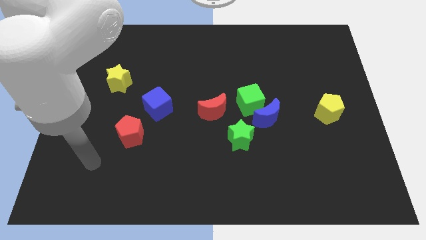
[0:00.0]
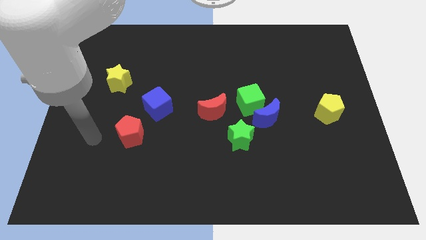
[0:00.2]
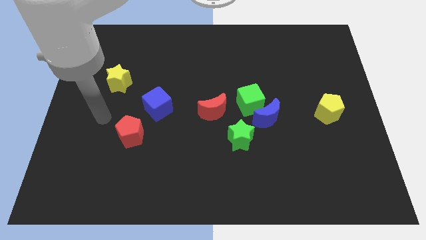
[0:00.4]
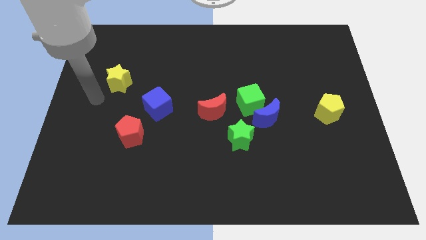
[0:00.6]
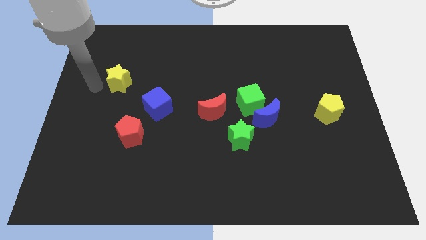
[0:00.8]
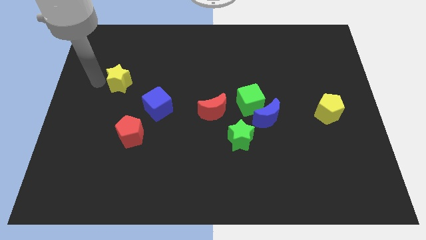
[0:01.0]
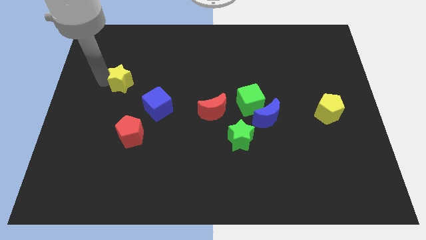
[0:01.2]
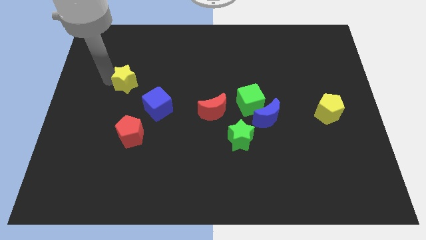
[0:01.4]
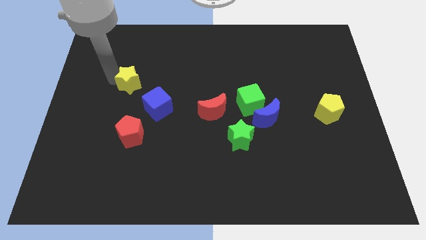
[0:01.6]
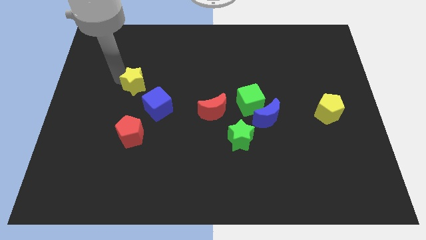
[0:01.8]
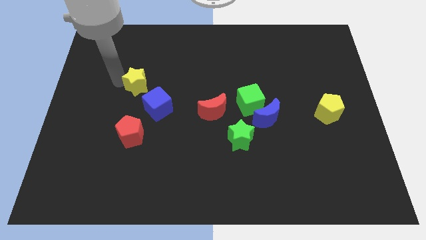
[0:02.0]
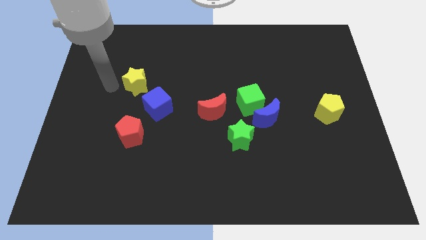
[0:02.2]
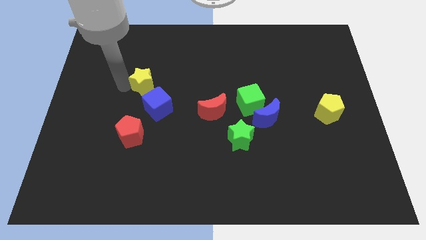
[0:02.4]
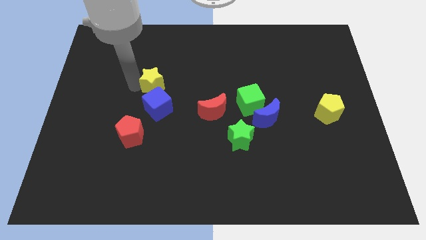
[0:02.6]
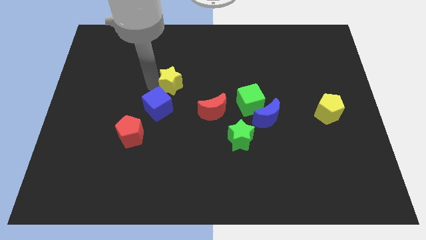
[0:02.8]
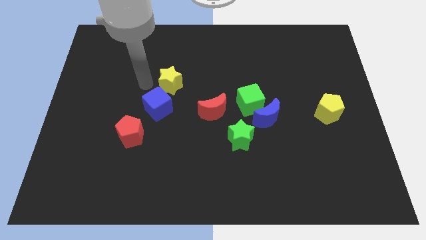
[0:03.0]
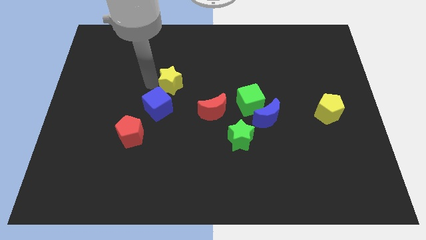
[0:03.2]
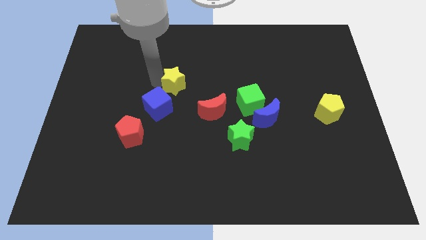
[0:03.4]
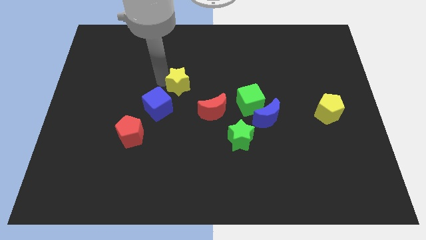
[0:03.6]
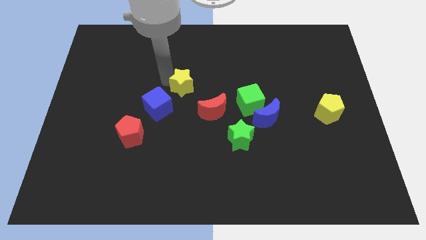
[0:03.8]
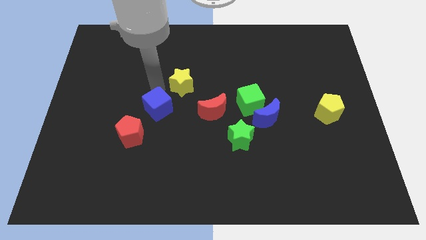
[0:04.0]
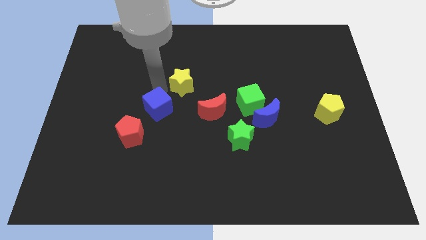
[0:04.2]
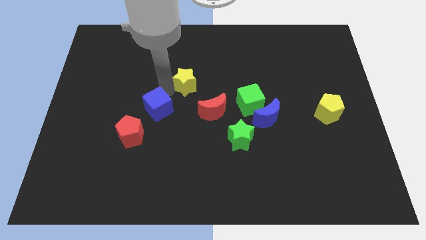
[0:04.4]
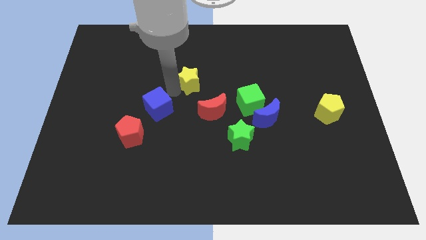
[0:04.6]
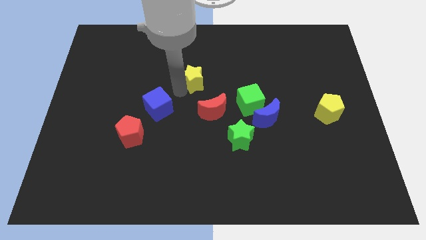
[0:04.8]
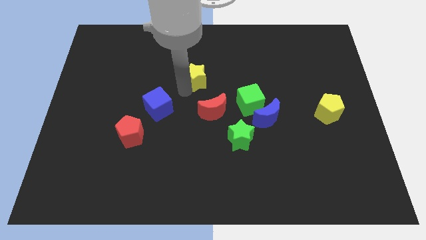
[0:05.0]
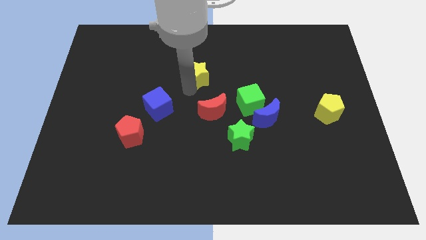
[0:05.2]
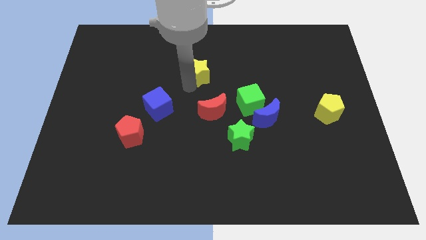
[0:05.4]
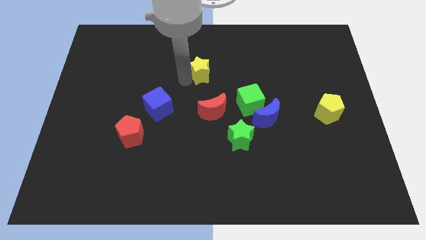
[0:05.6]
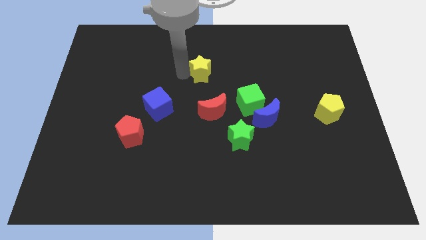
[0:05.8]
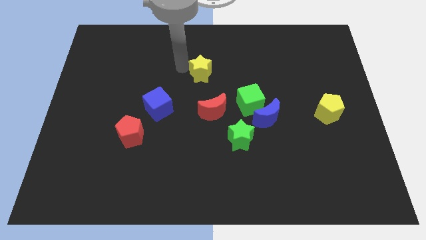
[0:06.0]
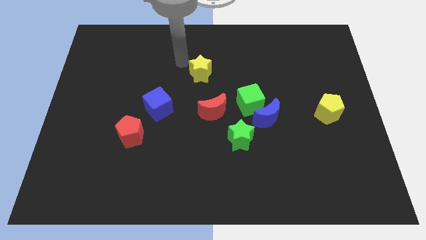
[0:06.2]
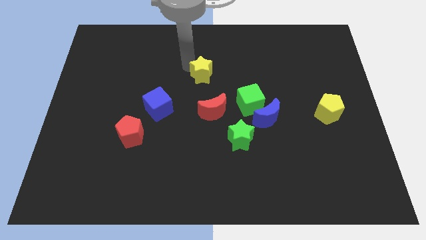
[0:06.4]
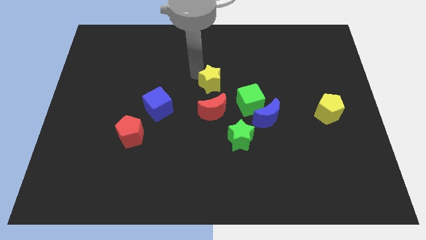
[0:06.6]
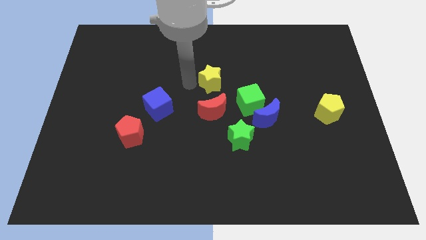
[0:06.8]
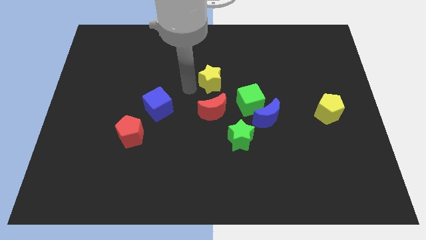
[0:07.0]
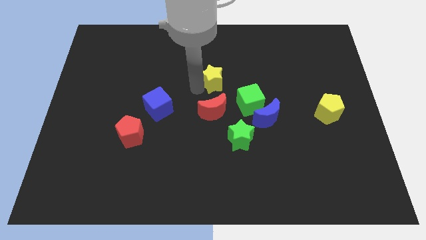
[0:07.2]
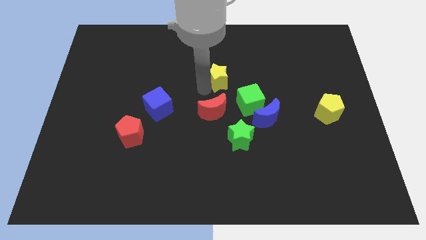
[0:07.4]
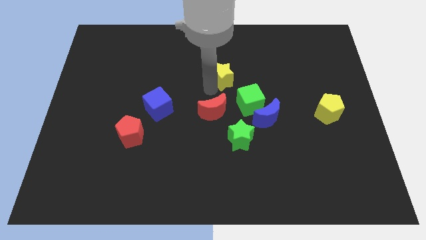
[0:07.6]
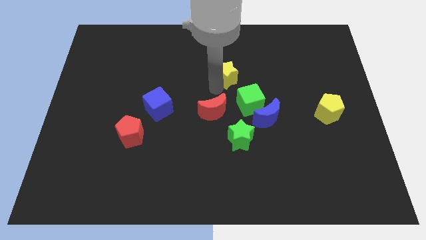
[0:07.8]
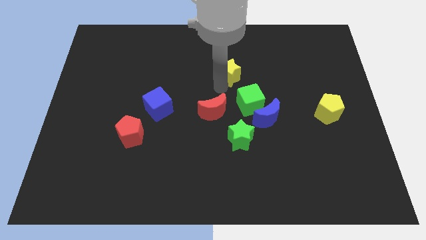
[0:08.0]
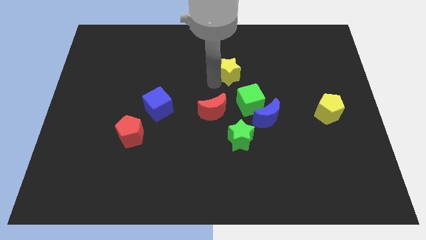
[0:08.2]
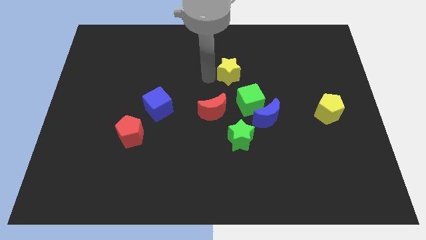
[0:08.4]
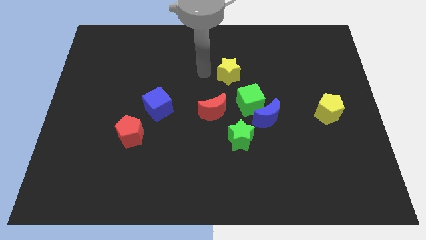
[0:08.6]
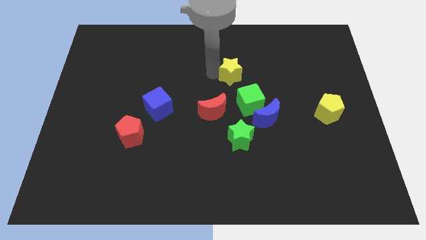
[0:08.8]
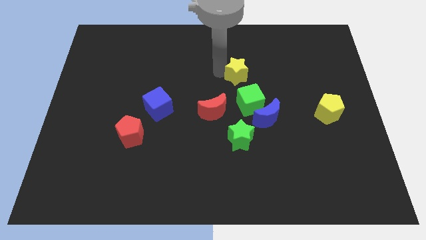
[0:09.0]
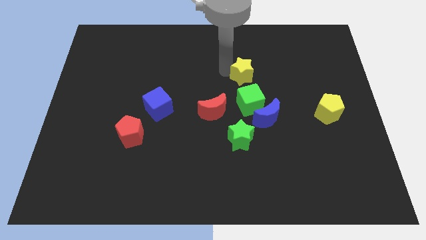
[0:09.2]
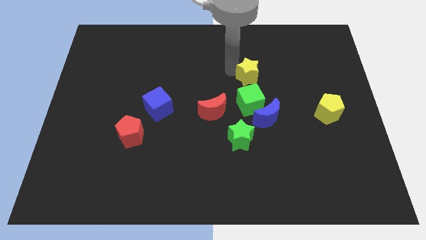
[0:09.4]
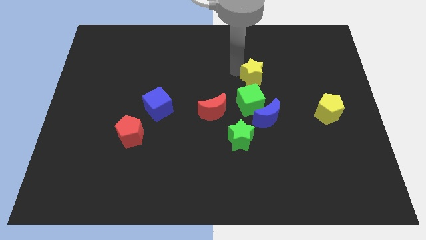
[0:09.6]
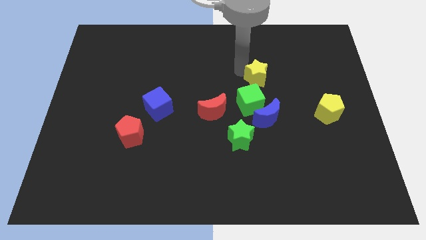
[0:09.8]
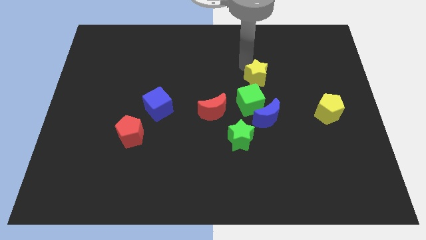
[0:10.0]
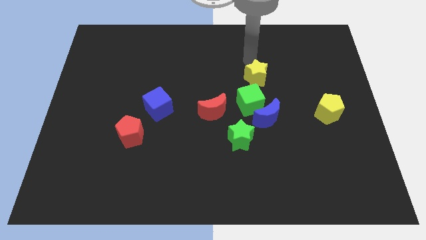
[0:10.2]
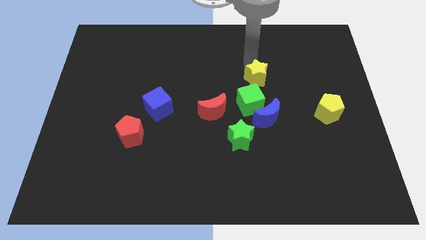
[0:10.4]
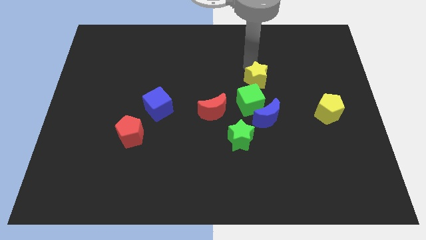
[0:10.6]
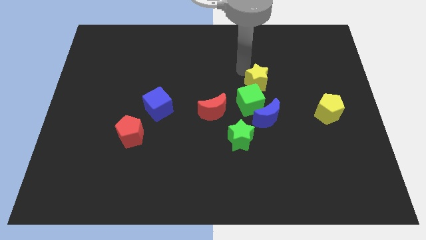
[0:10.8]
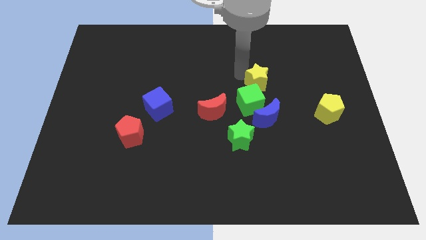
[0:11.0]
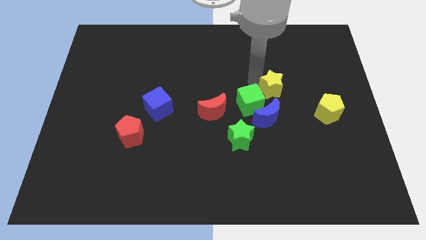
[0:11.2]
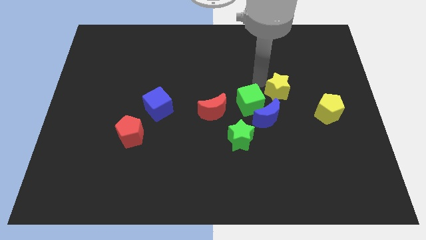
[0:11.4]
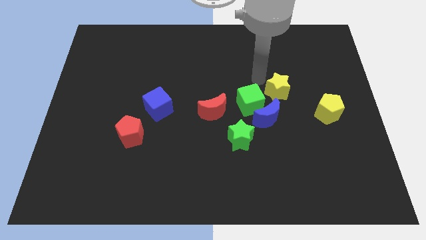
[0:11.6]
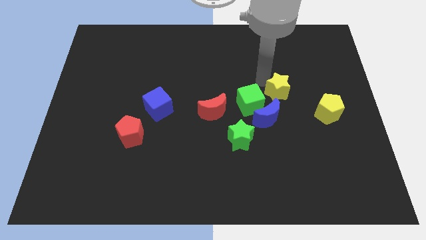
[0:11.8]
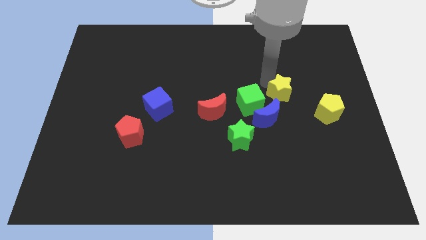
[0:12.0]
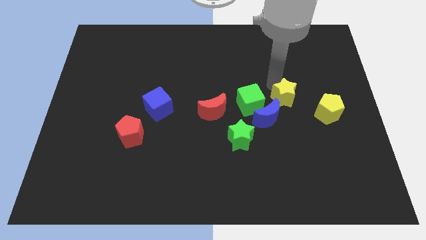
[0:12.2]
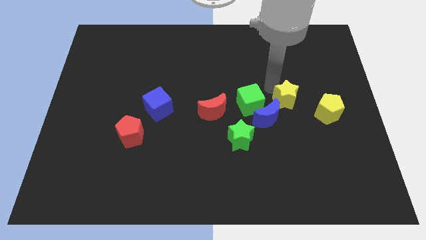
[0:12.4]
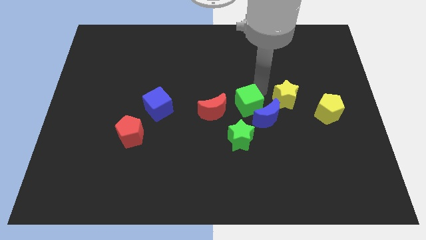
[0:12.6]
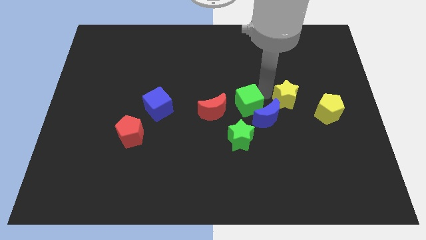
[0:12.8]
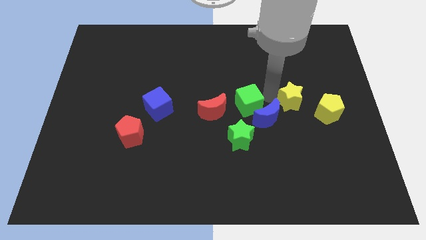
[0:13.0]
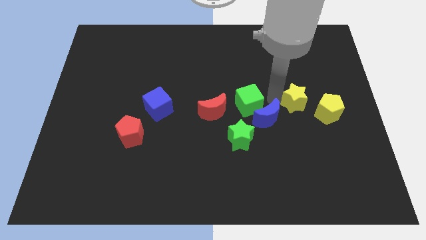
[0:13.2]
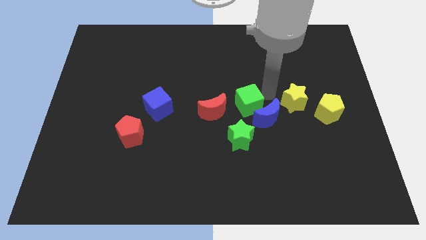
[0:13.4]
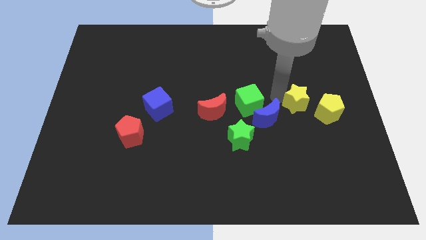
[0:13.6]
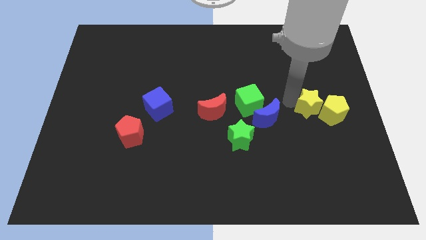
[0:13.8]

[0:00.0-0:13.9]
push the yellow star close to the yellow pentagon

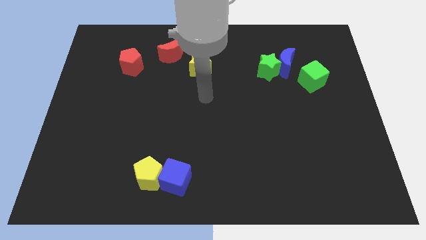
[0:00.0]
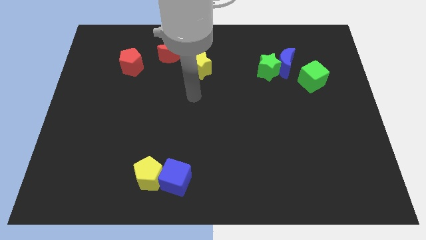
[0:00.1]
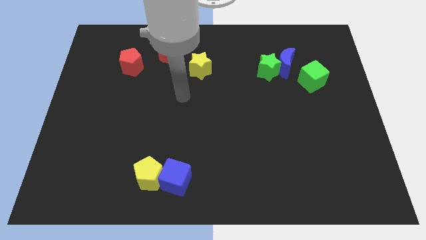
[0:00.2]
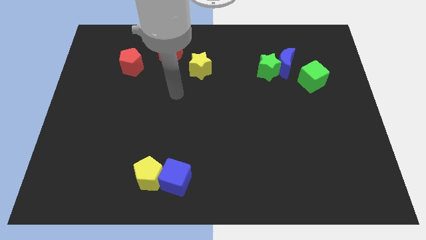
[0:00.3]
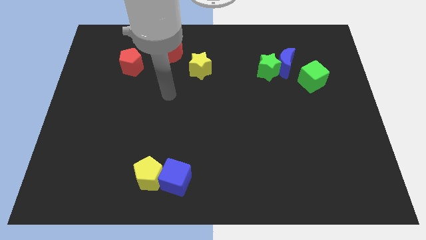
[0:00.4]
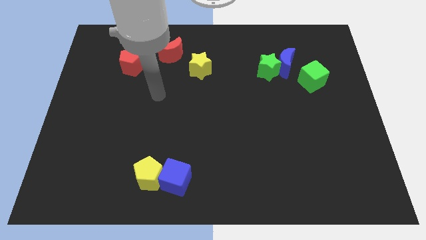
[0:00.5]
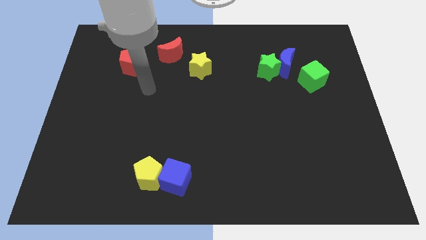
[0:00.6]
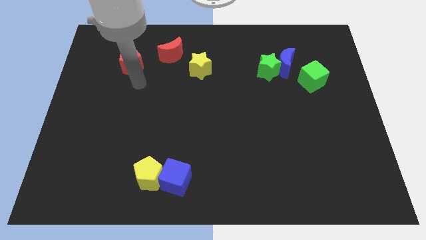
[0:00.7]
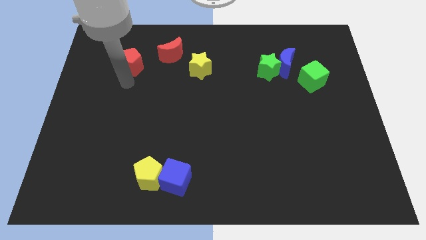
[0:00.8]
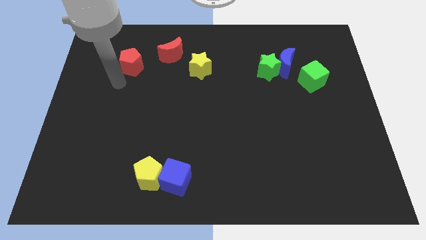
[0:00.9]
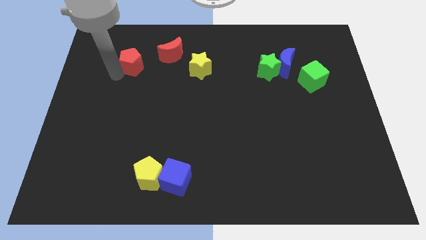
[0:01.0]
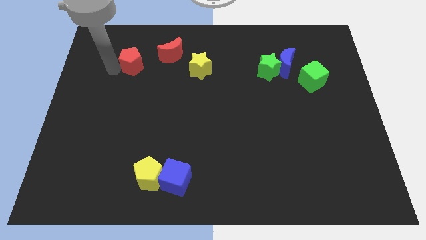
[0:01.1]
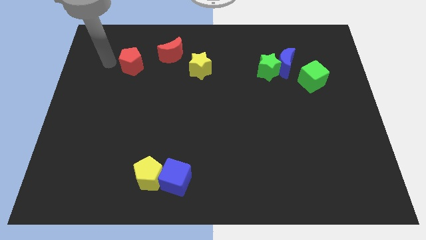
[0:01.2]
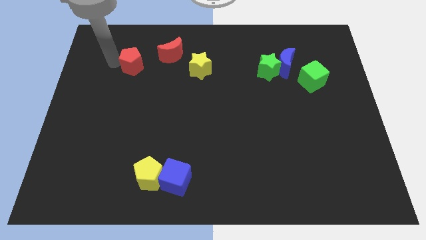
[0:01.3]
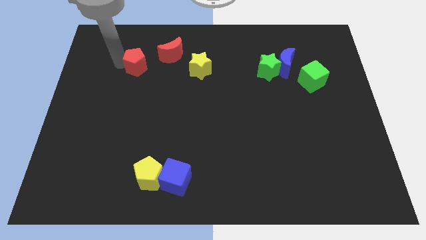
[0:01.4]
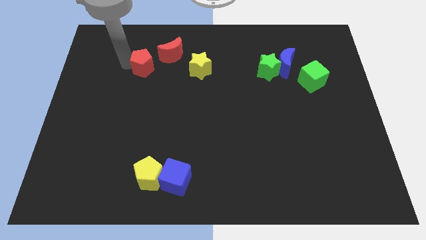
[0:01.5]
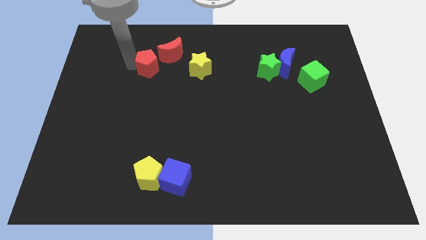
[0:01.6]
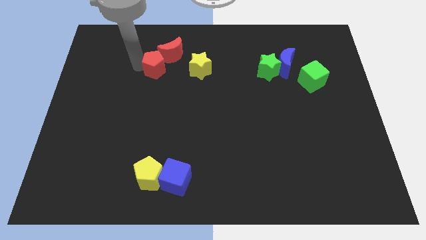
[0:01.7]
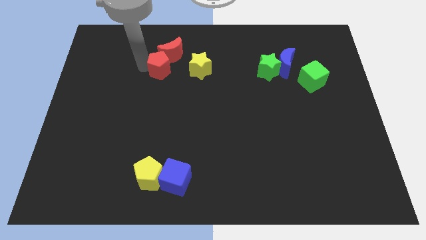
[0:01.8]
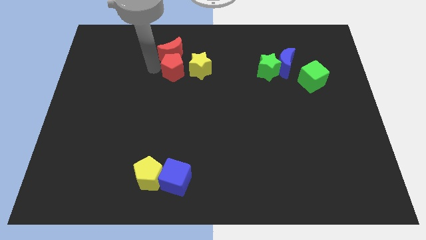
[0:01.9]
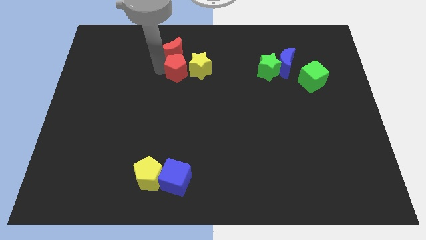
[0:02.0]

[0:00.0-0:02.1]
move the red pentagon close to the yellow star
